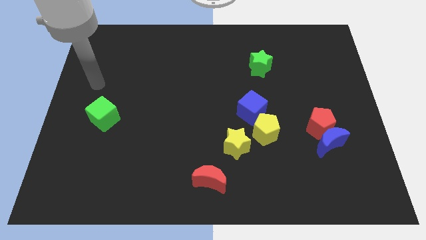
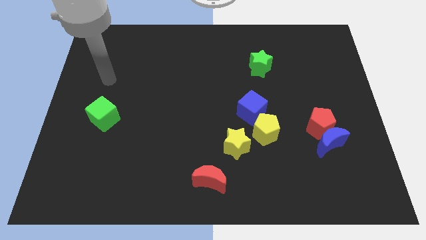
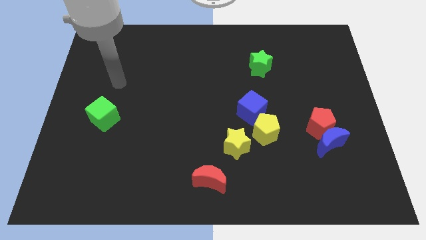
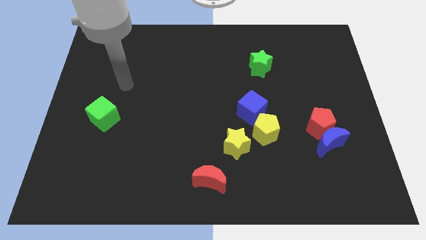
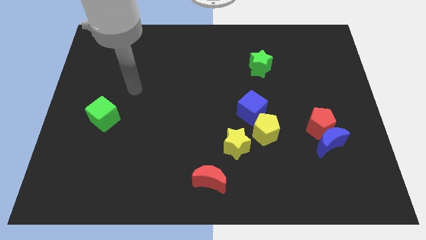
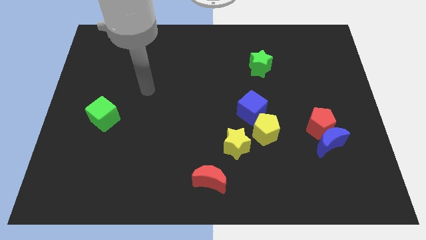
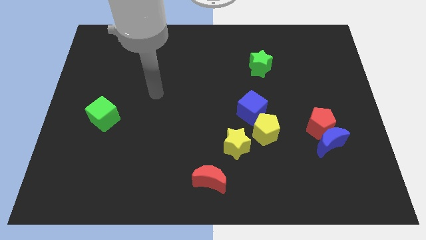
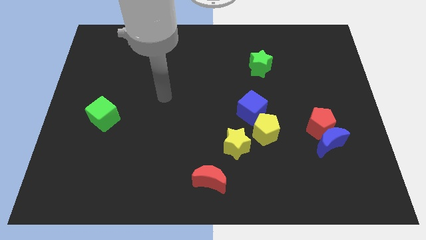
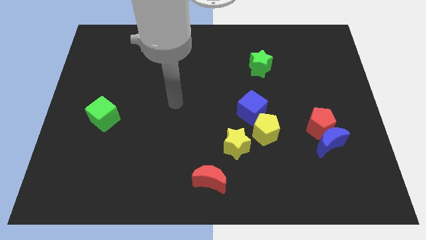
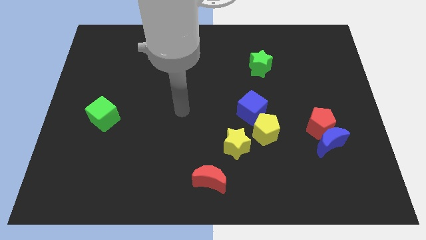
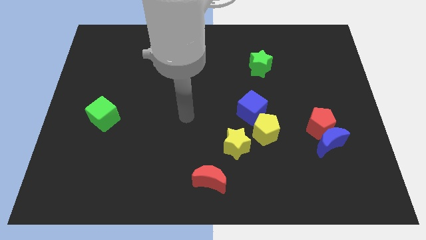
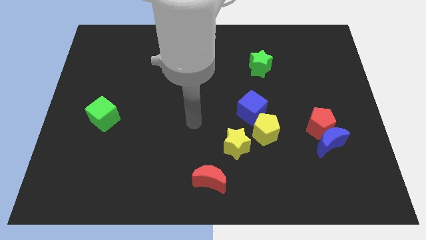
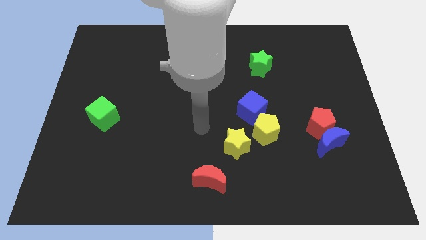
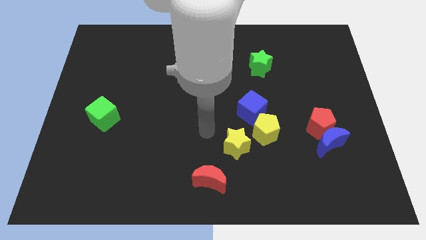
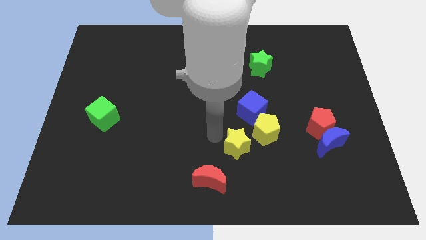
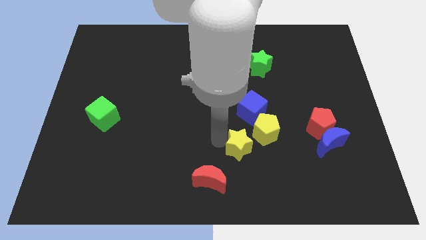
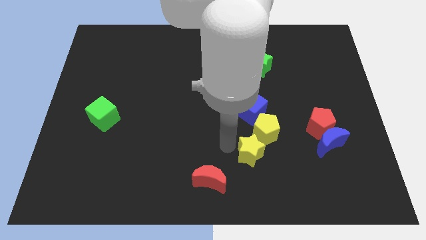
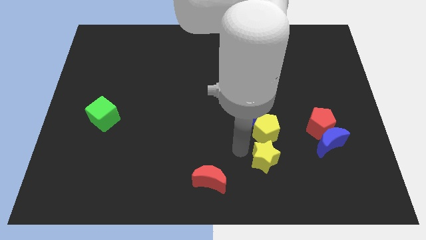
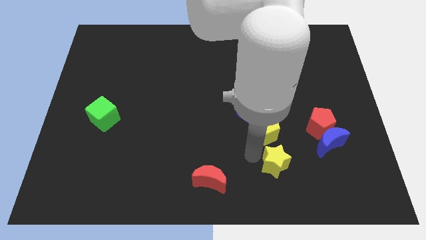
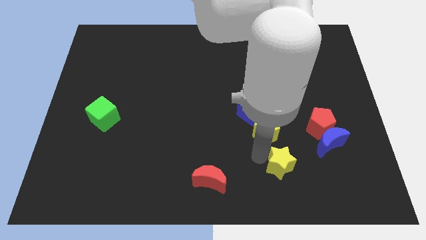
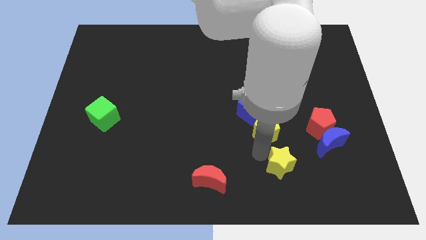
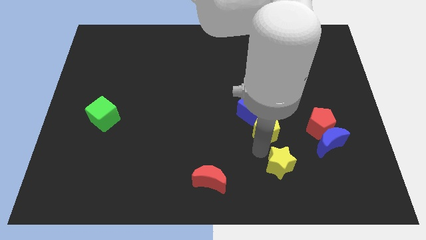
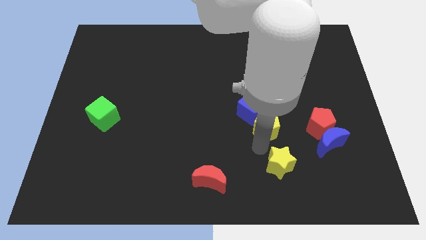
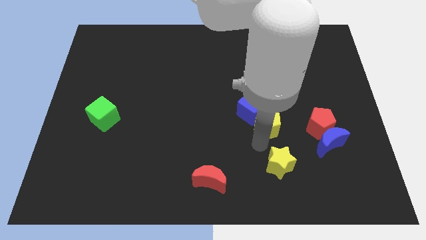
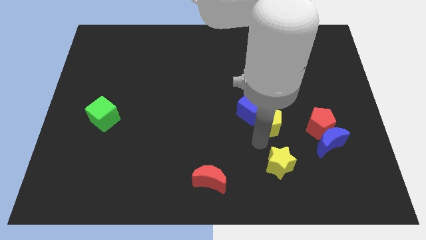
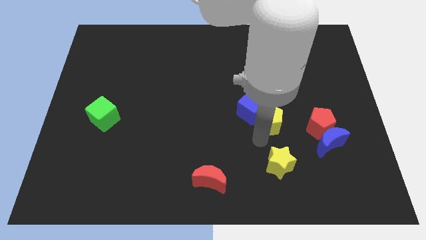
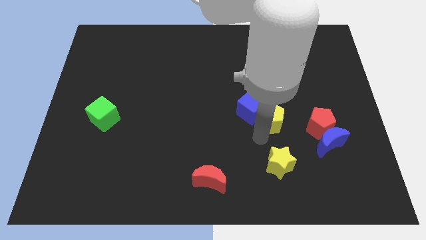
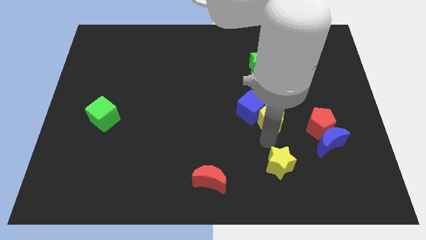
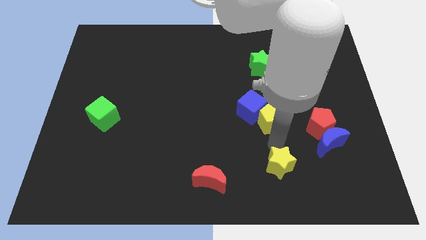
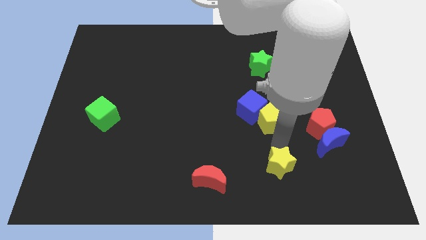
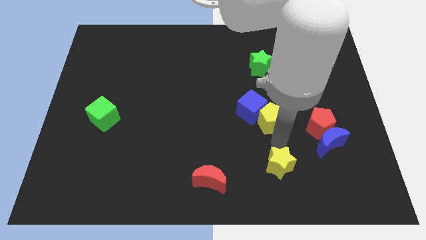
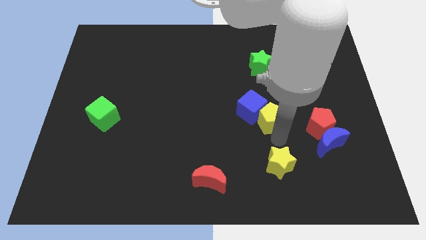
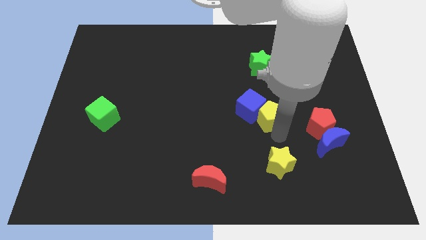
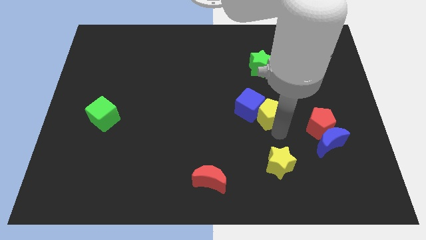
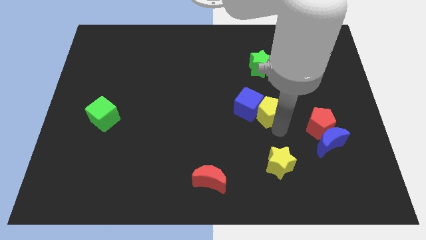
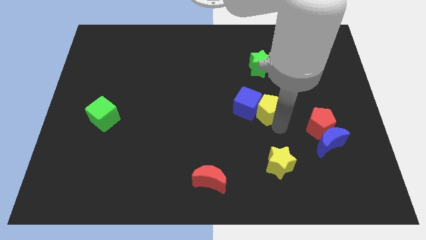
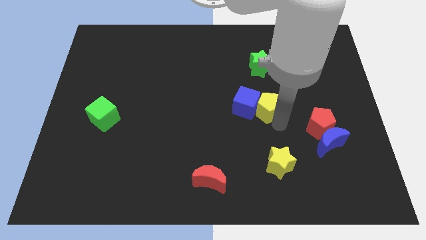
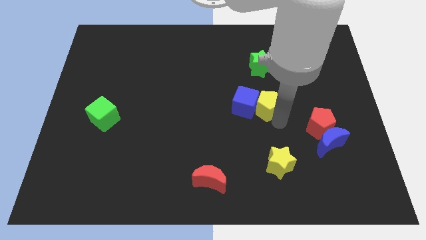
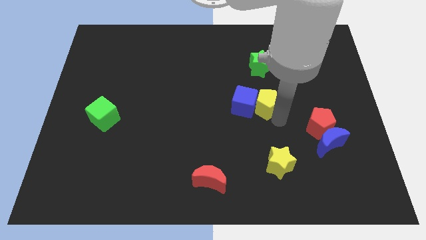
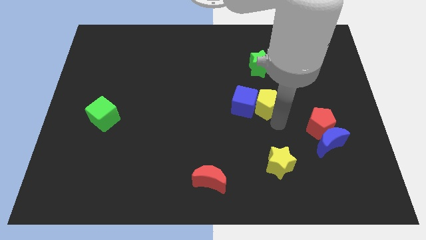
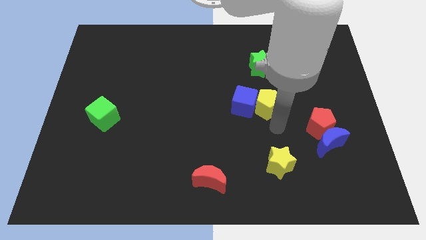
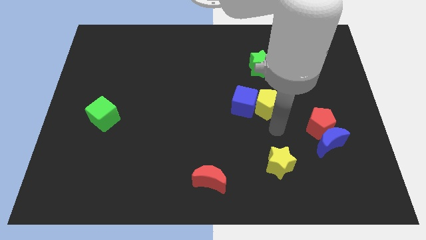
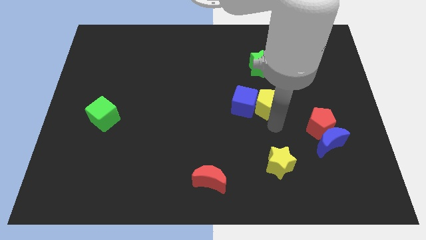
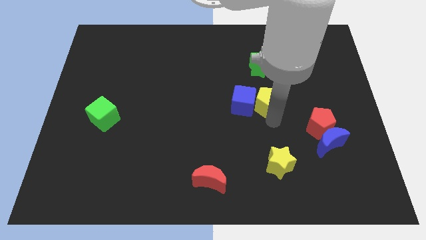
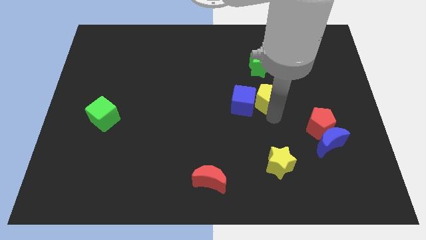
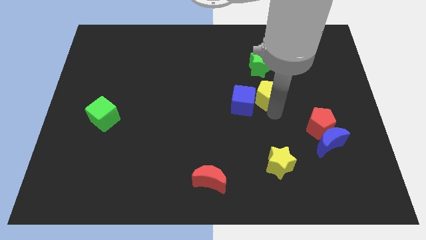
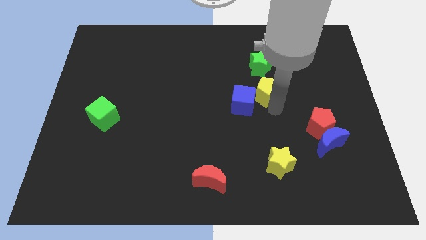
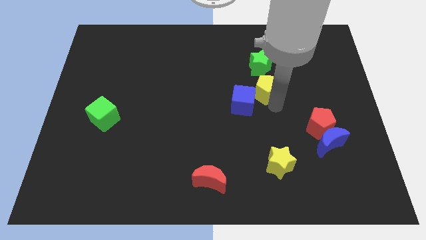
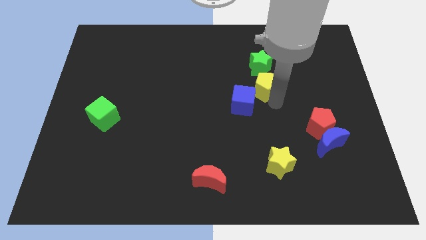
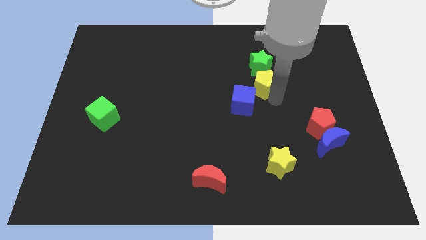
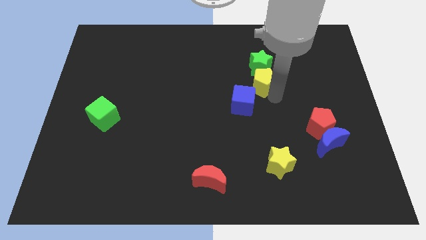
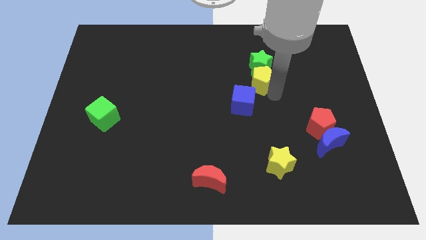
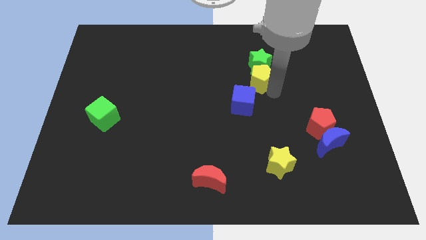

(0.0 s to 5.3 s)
move the yellow pentagon to the top of the blue cube

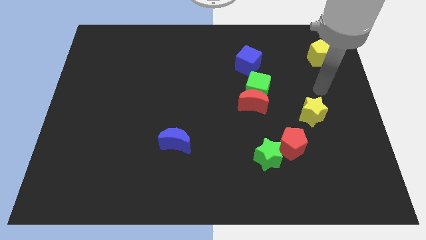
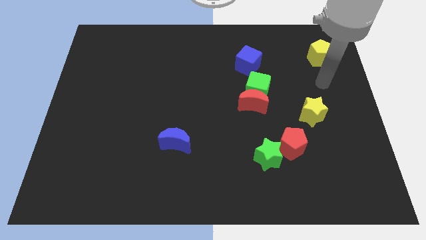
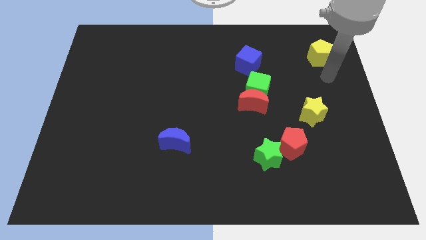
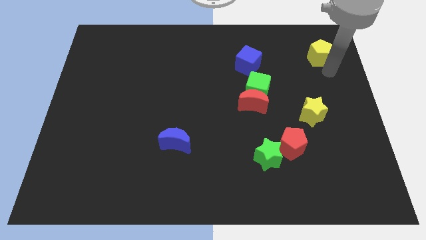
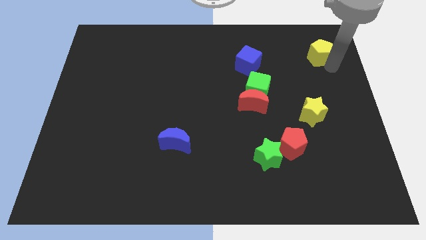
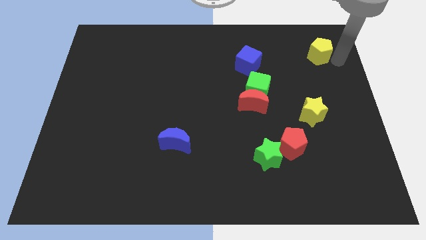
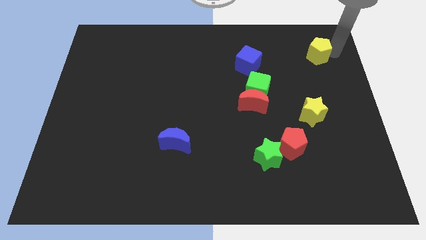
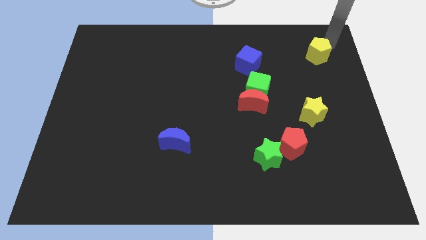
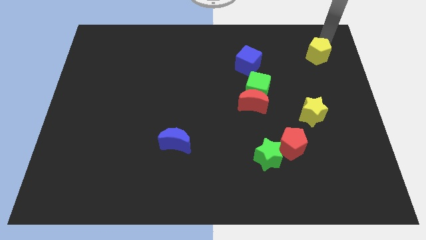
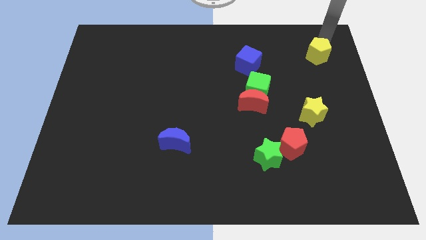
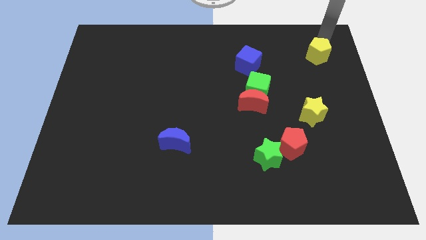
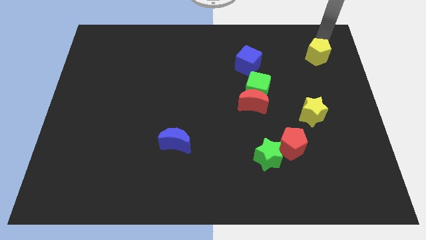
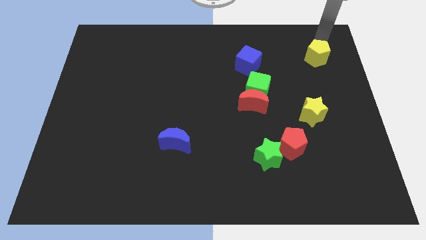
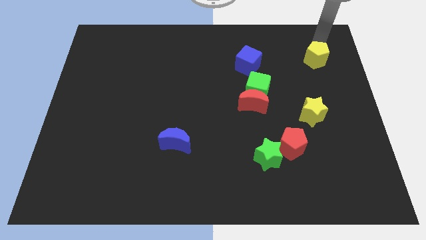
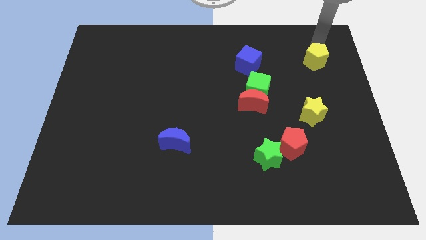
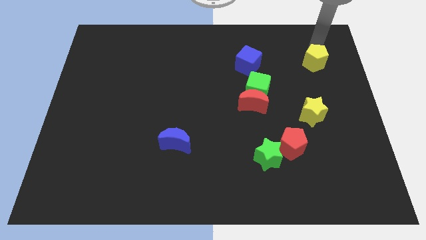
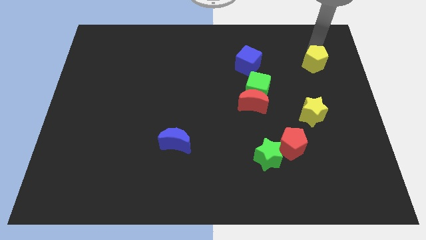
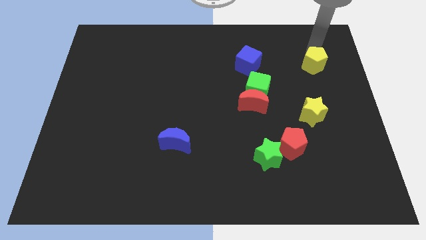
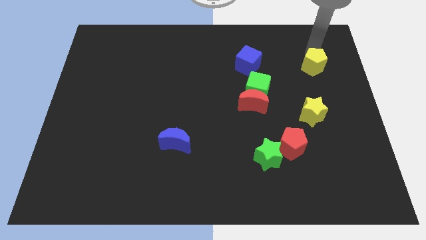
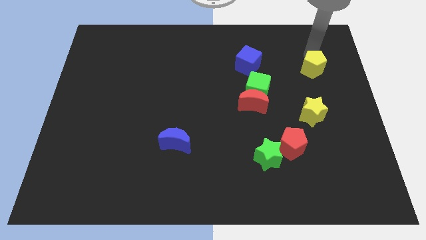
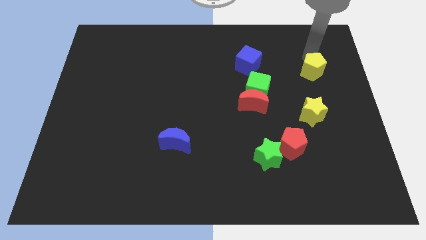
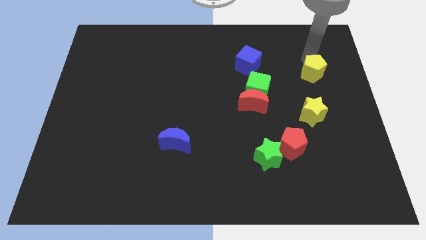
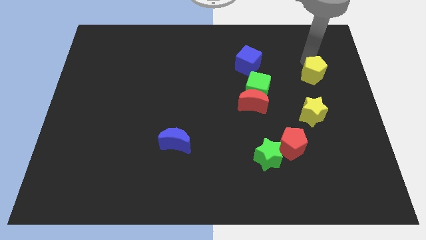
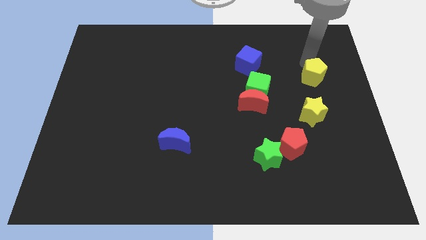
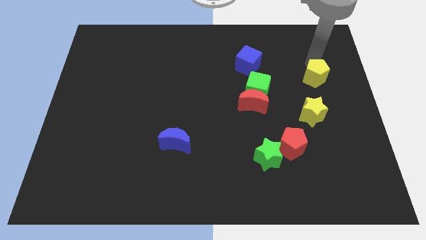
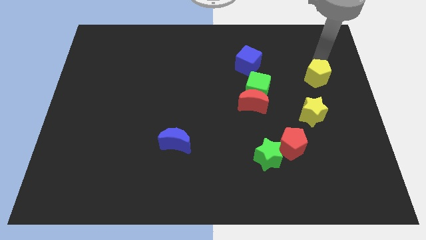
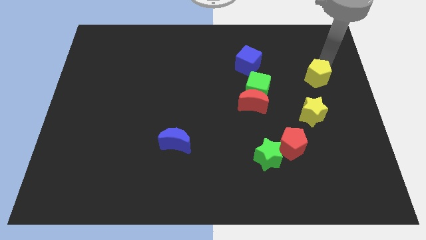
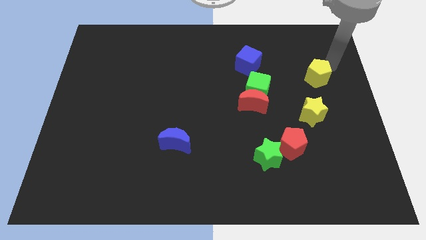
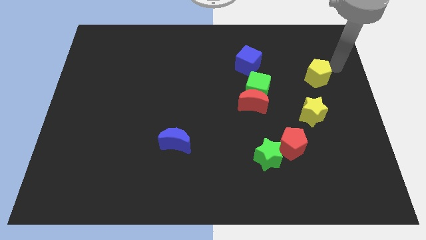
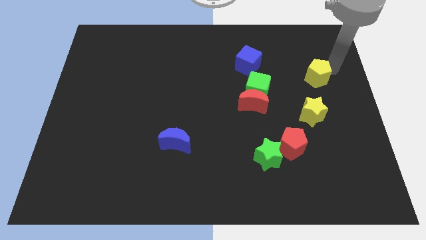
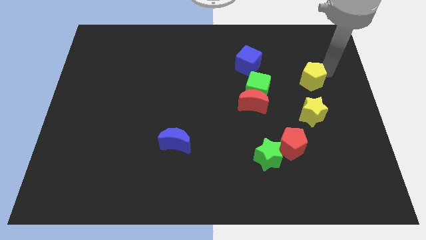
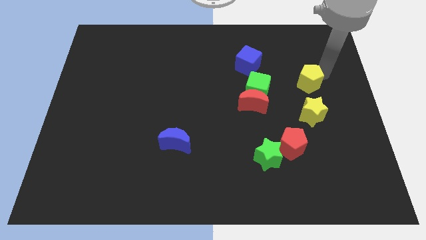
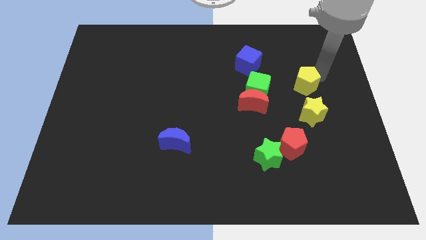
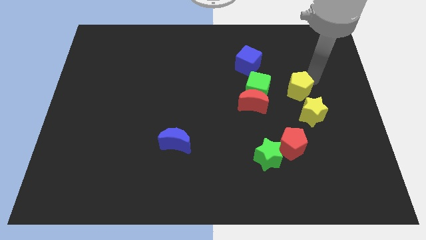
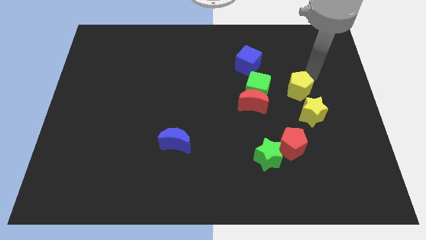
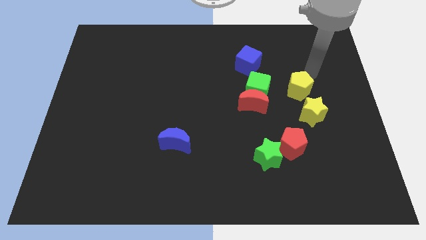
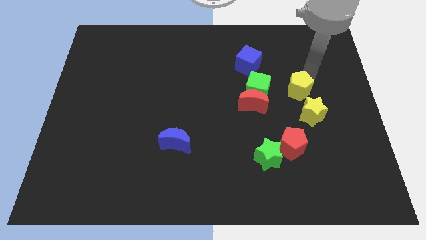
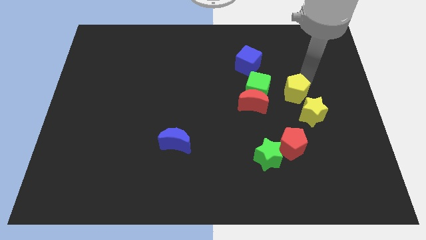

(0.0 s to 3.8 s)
put the yellow pentagon to the top side of the red pentagon
